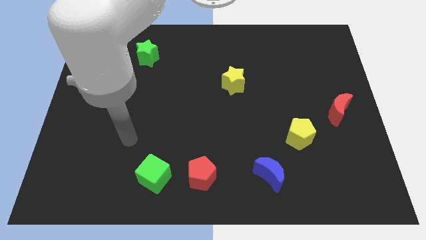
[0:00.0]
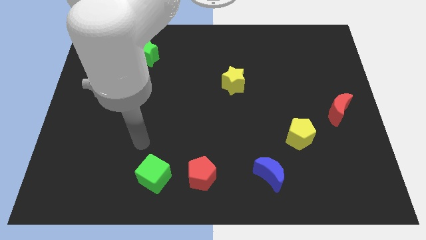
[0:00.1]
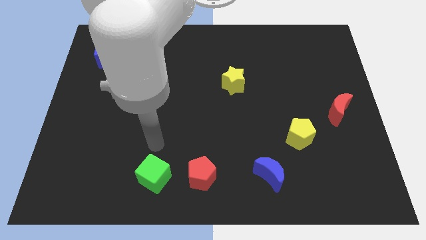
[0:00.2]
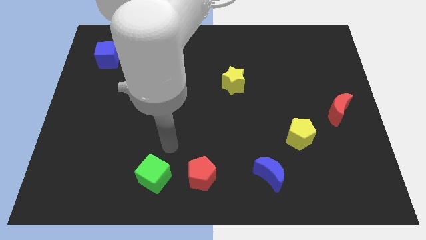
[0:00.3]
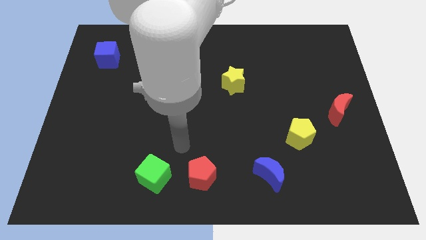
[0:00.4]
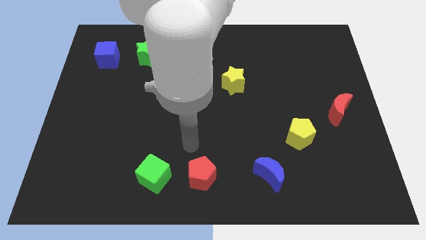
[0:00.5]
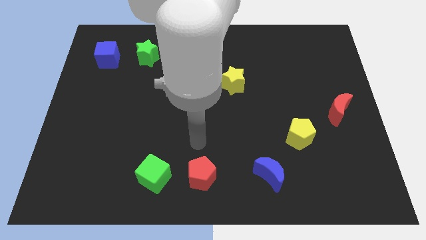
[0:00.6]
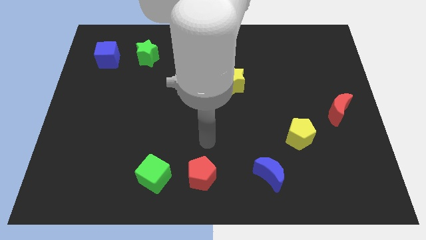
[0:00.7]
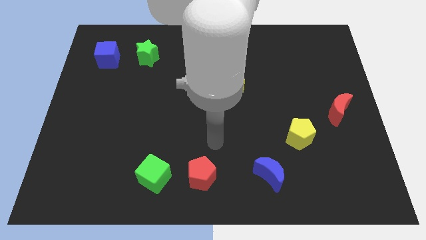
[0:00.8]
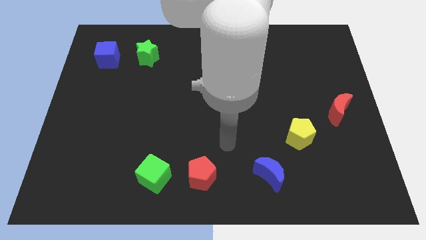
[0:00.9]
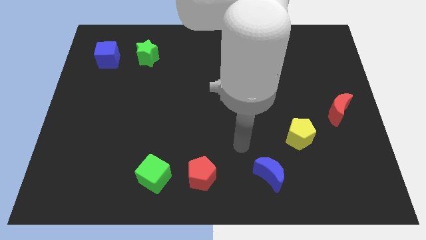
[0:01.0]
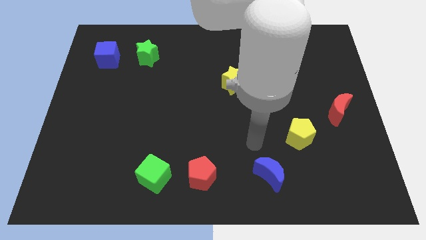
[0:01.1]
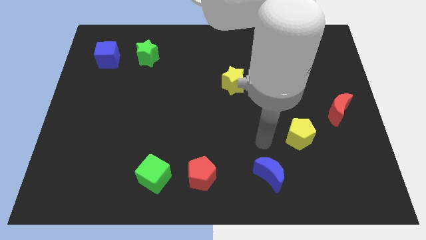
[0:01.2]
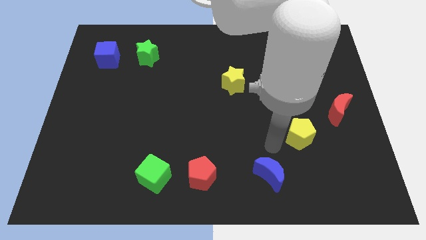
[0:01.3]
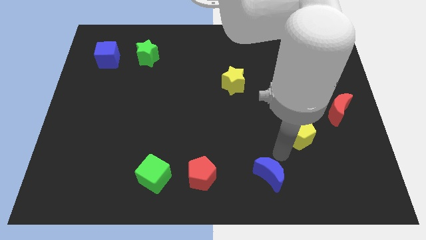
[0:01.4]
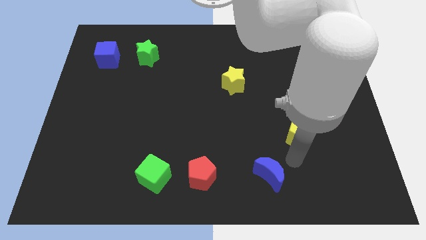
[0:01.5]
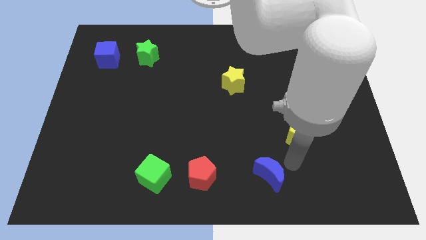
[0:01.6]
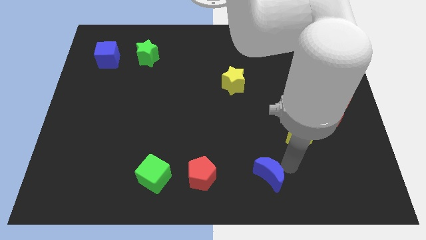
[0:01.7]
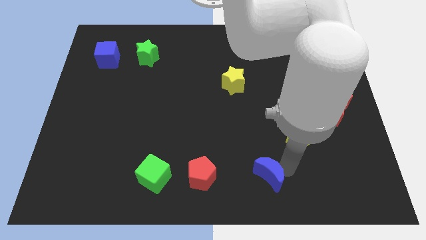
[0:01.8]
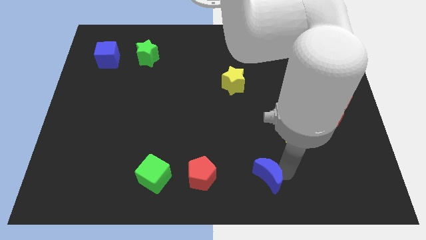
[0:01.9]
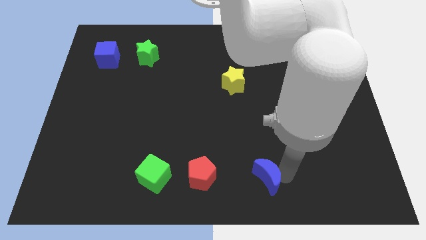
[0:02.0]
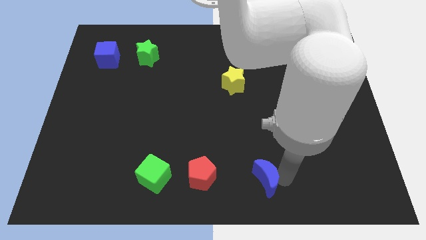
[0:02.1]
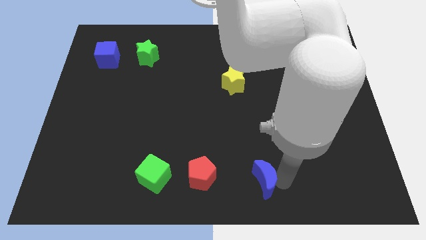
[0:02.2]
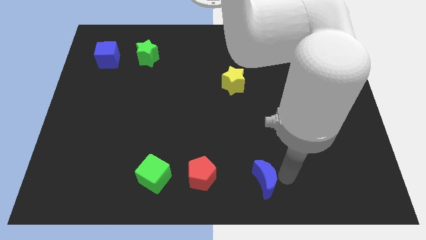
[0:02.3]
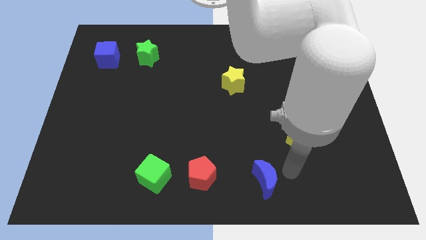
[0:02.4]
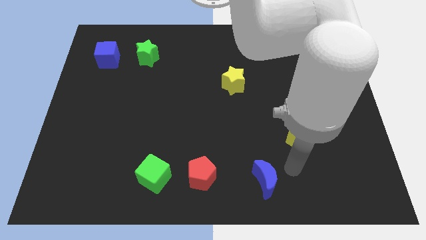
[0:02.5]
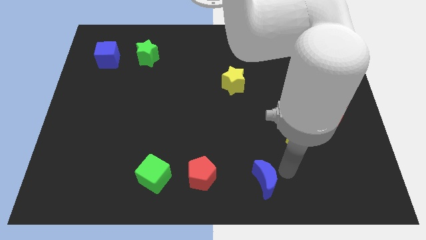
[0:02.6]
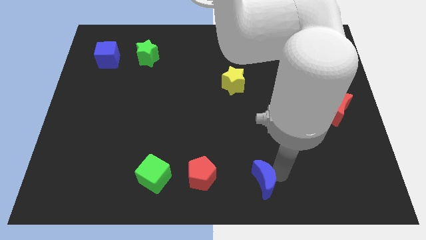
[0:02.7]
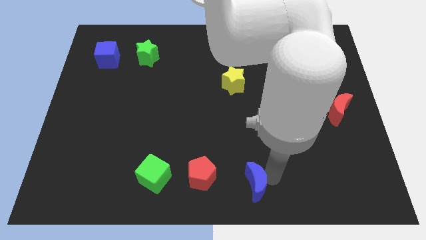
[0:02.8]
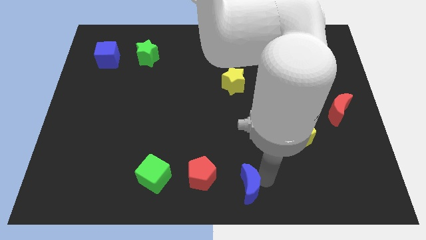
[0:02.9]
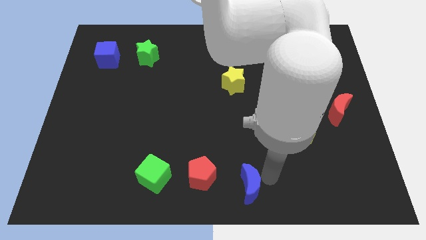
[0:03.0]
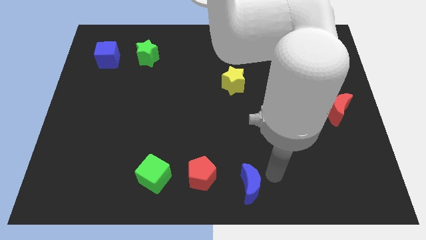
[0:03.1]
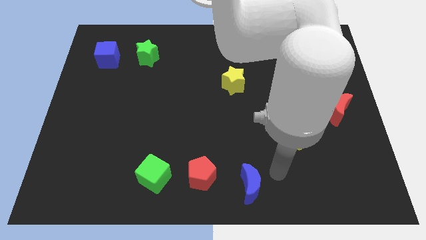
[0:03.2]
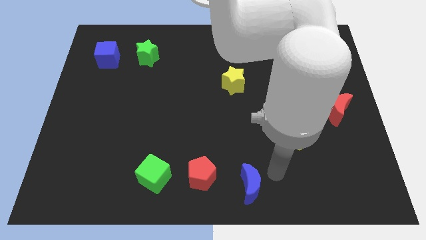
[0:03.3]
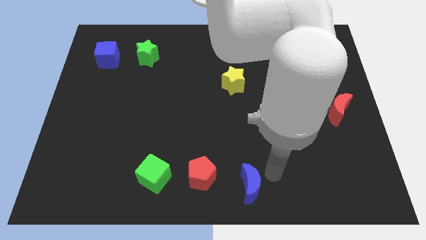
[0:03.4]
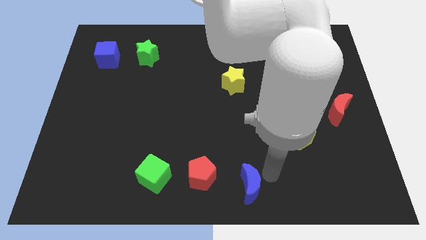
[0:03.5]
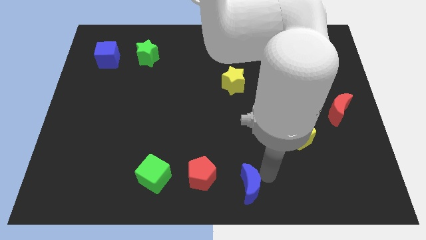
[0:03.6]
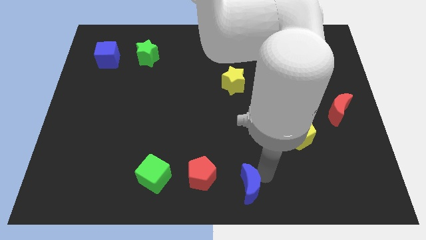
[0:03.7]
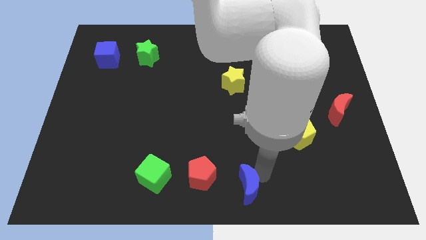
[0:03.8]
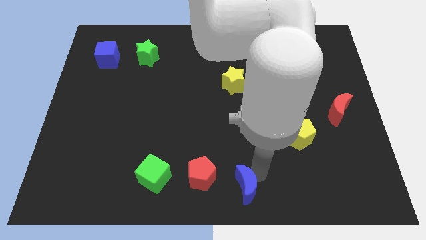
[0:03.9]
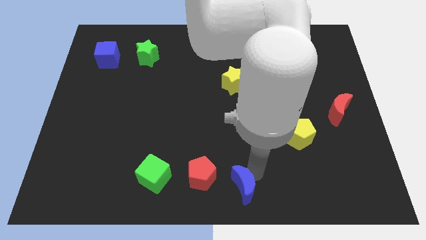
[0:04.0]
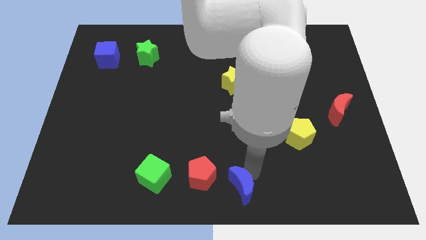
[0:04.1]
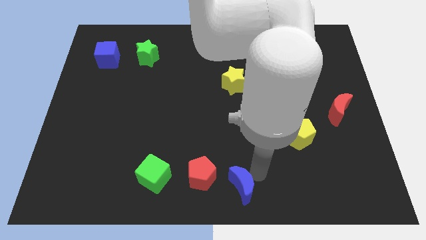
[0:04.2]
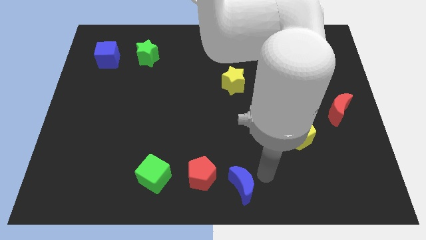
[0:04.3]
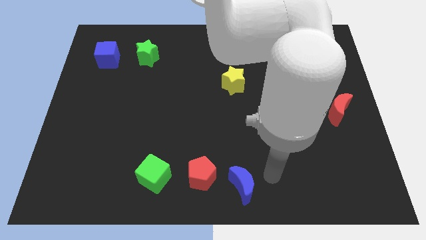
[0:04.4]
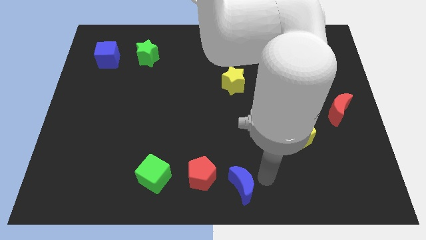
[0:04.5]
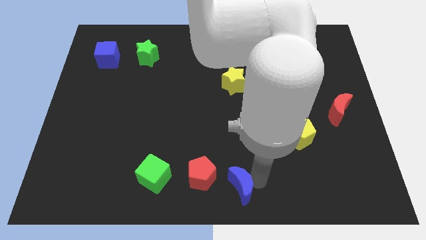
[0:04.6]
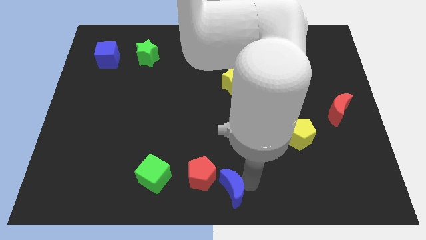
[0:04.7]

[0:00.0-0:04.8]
slide the blue moon left somewhat

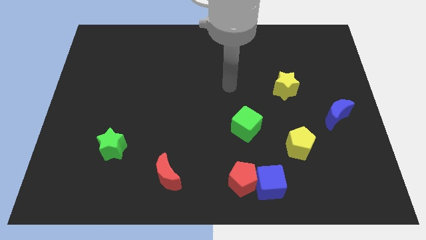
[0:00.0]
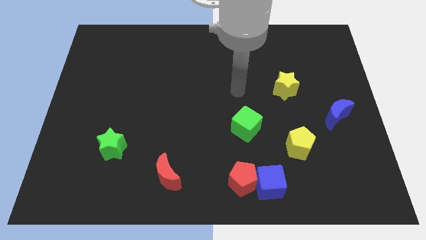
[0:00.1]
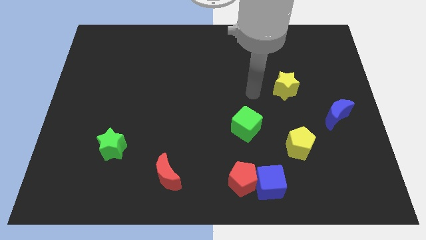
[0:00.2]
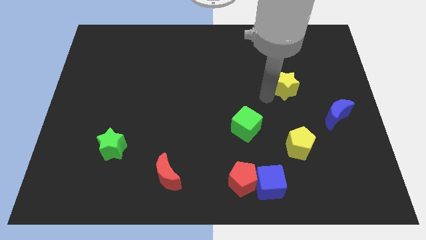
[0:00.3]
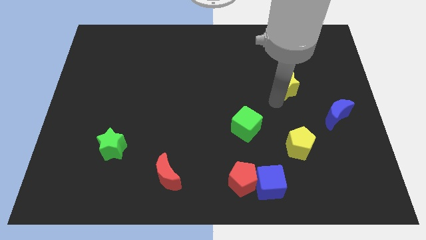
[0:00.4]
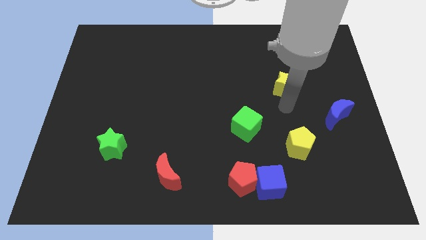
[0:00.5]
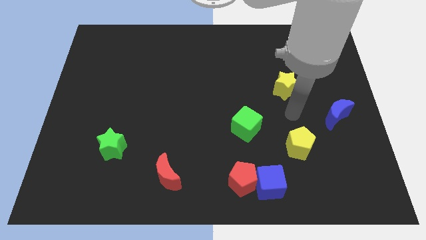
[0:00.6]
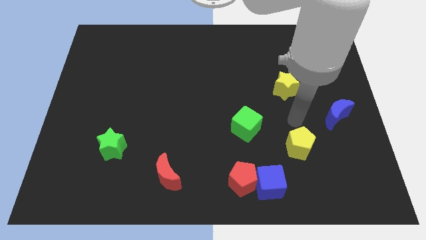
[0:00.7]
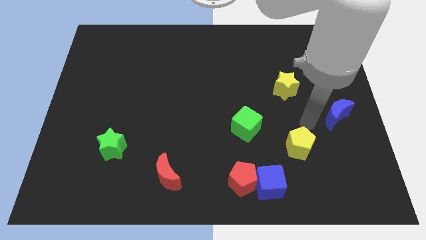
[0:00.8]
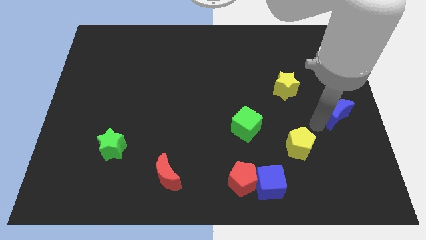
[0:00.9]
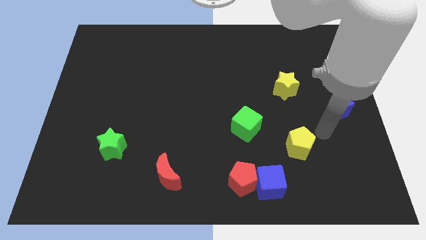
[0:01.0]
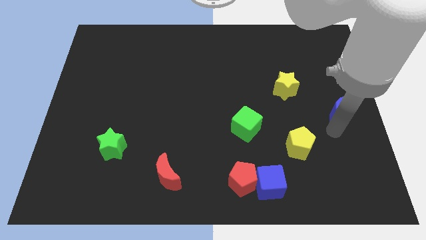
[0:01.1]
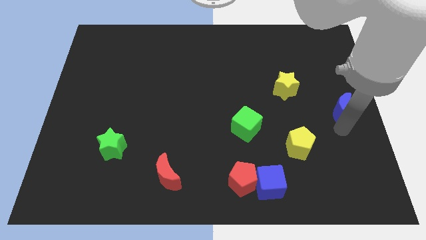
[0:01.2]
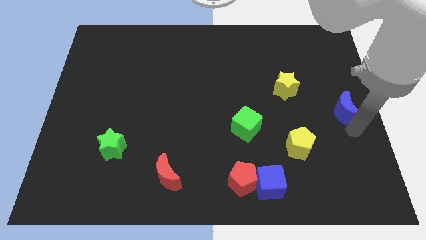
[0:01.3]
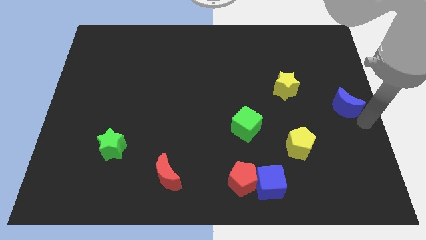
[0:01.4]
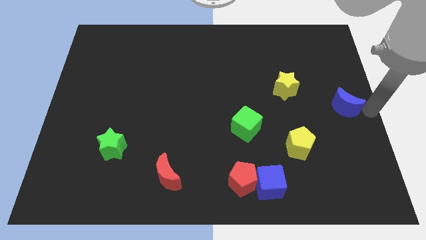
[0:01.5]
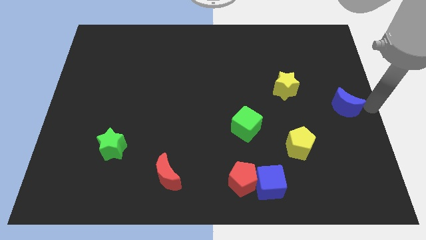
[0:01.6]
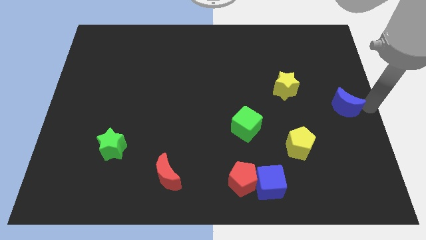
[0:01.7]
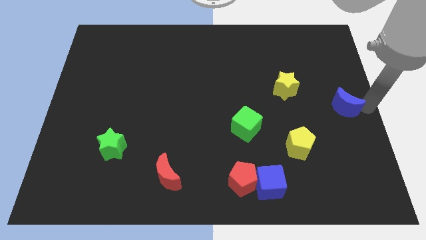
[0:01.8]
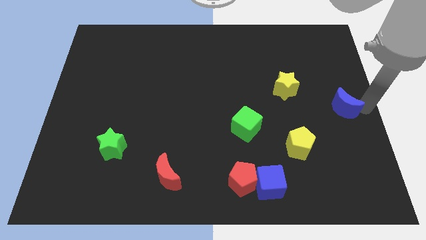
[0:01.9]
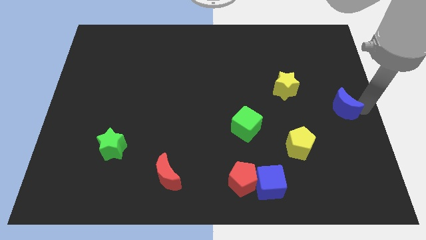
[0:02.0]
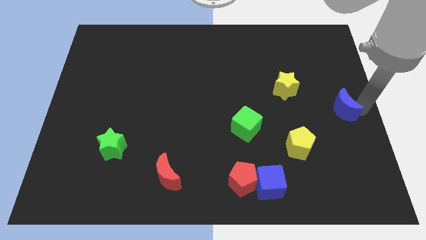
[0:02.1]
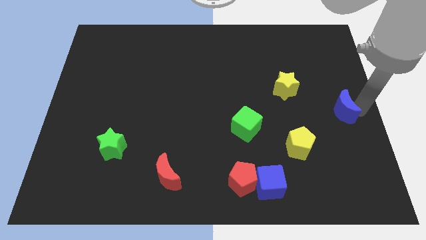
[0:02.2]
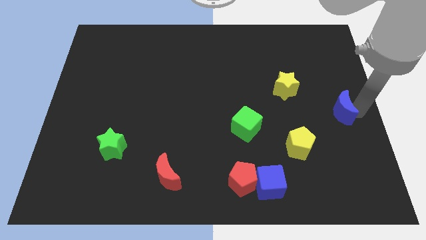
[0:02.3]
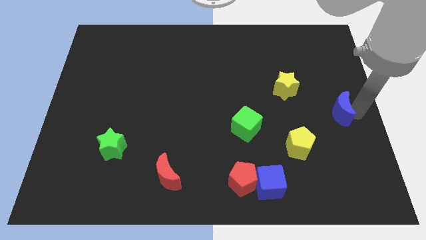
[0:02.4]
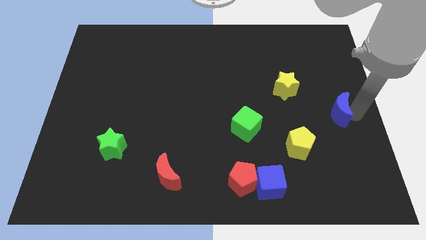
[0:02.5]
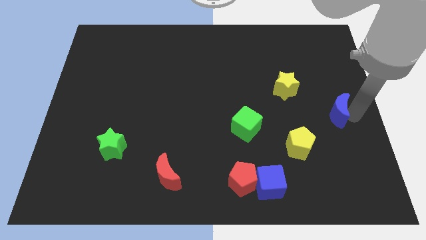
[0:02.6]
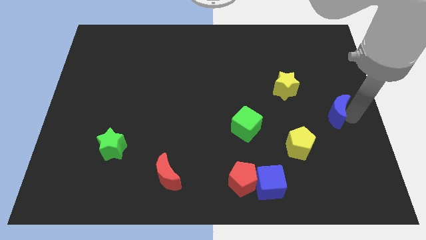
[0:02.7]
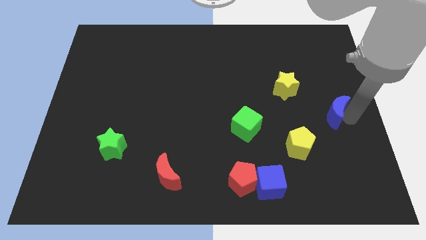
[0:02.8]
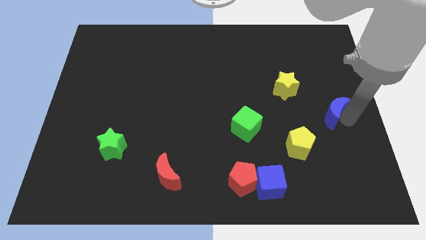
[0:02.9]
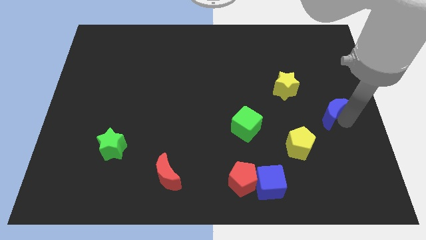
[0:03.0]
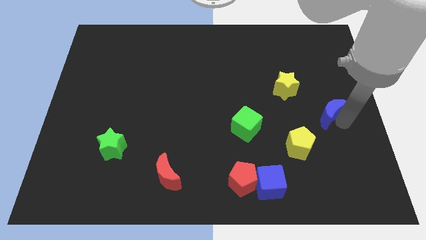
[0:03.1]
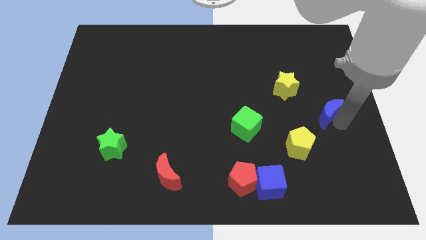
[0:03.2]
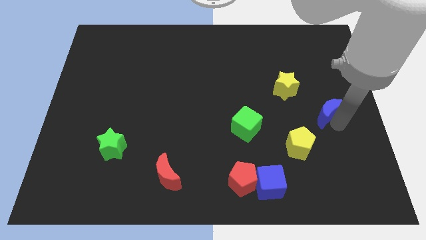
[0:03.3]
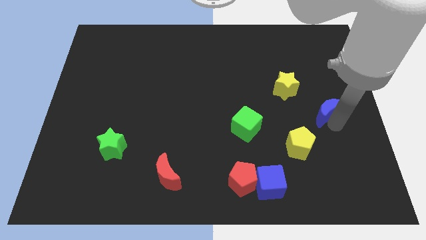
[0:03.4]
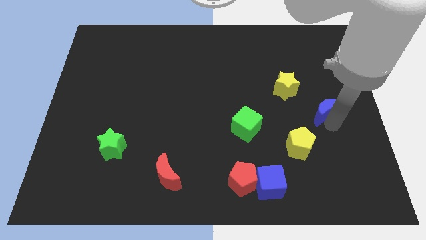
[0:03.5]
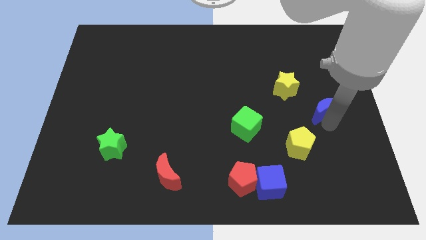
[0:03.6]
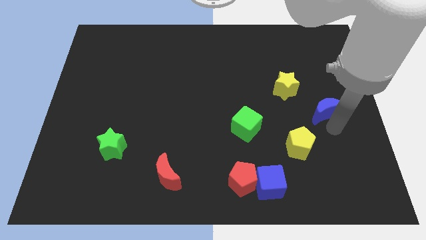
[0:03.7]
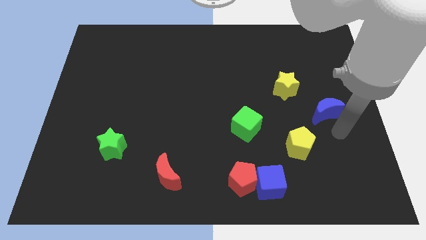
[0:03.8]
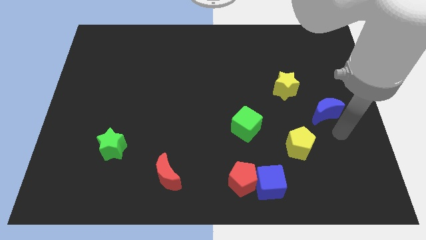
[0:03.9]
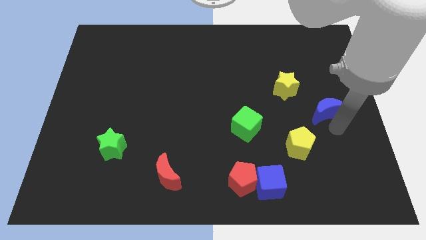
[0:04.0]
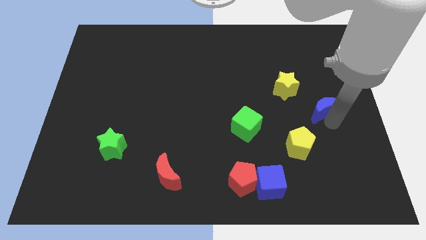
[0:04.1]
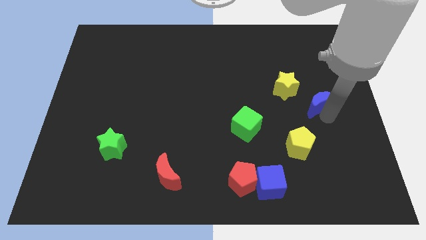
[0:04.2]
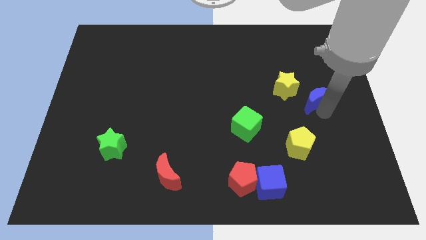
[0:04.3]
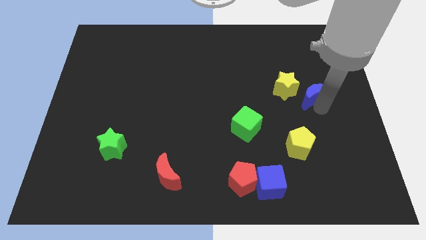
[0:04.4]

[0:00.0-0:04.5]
push the blue moon diagonally upwards and left somewhat
